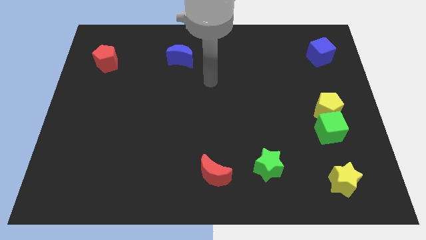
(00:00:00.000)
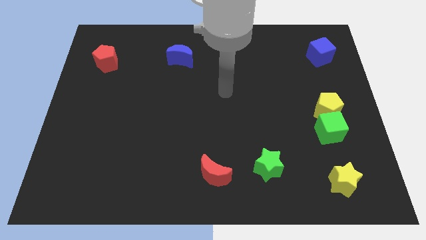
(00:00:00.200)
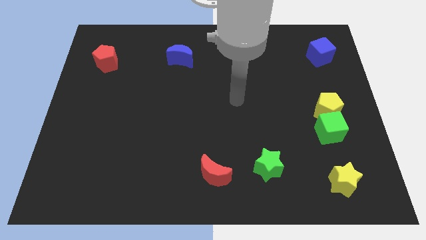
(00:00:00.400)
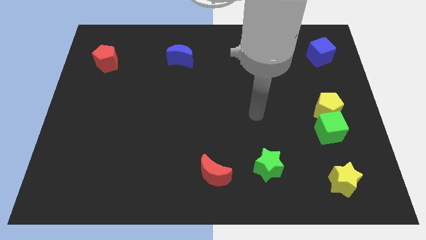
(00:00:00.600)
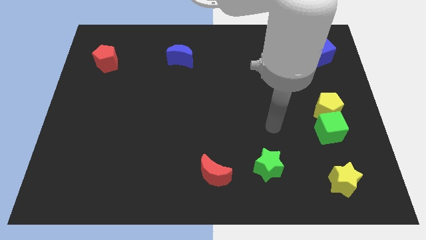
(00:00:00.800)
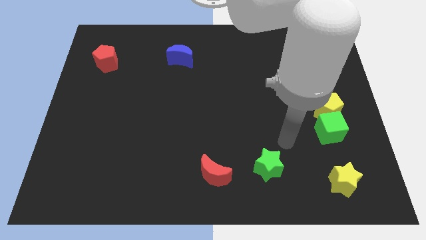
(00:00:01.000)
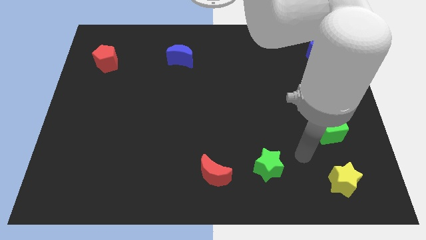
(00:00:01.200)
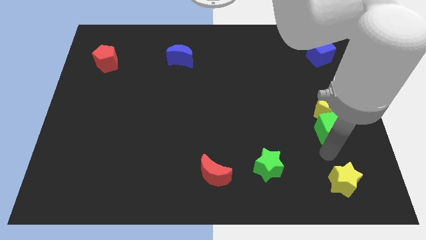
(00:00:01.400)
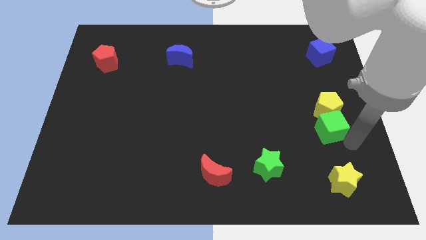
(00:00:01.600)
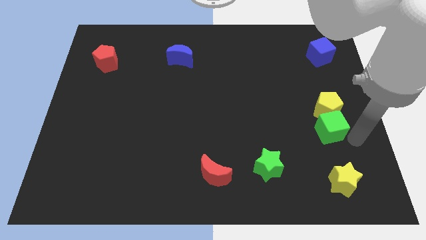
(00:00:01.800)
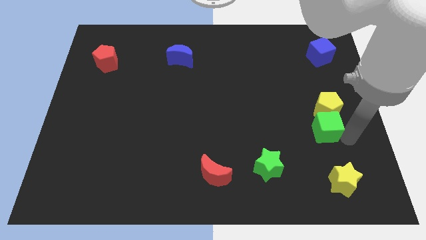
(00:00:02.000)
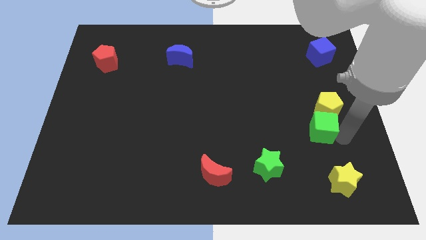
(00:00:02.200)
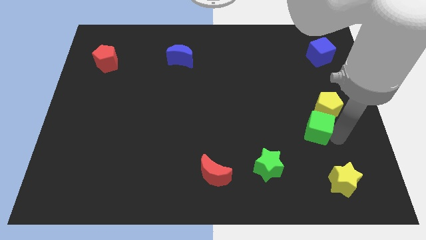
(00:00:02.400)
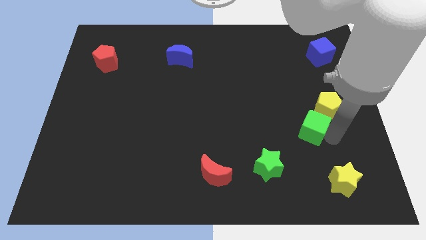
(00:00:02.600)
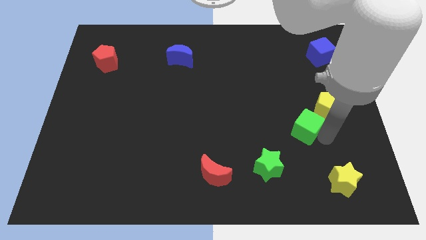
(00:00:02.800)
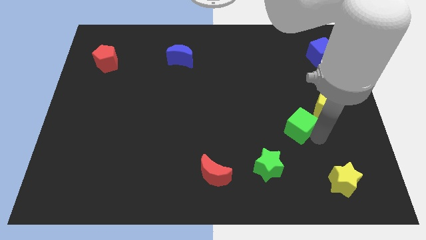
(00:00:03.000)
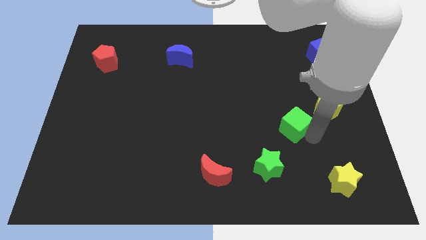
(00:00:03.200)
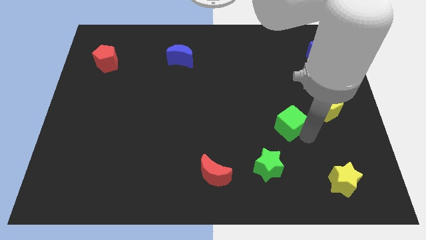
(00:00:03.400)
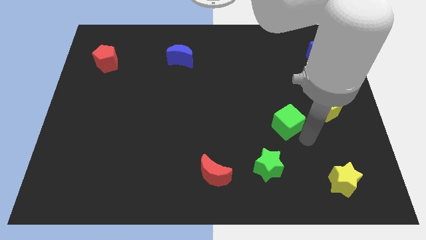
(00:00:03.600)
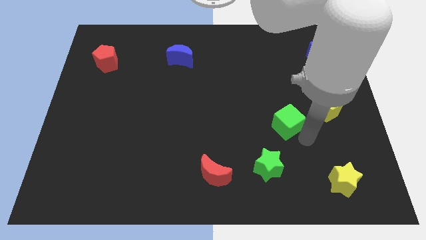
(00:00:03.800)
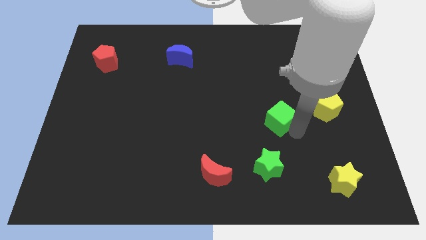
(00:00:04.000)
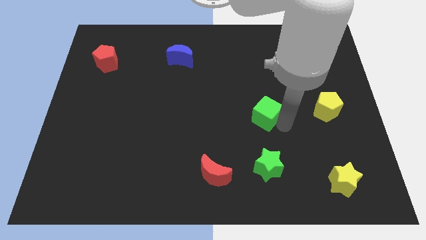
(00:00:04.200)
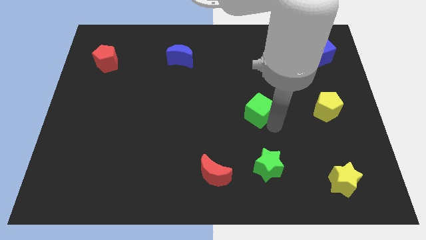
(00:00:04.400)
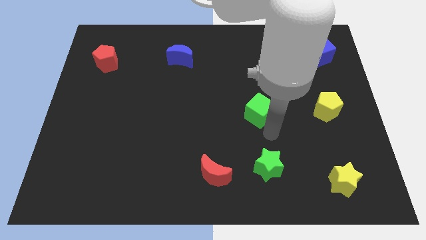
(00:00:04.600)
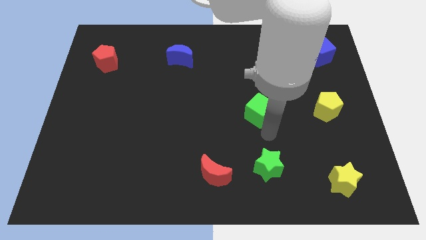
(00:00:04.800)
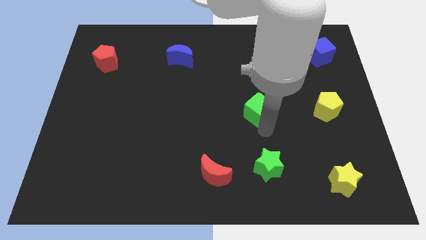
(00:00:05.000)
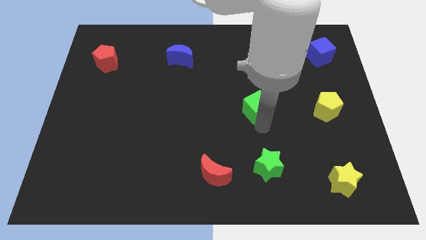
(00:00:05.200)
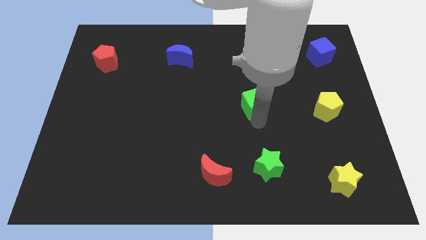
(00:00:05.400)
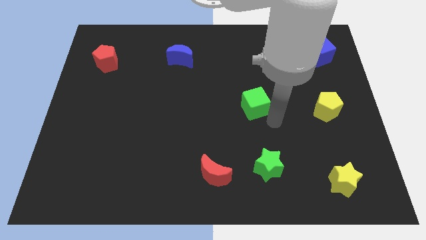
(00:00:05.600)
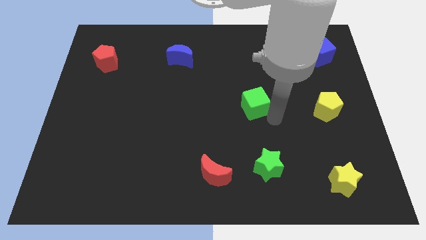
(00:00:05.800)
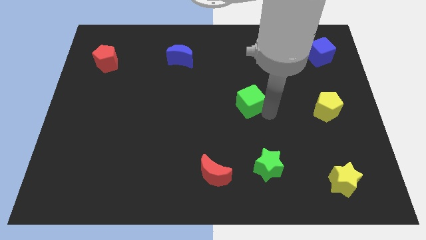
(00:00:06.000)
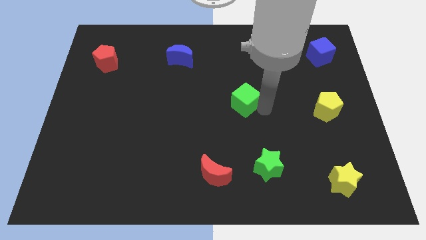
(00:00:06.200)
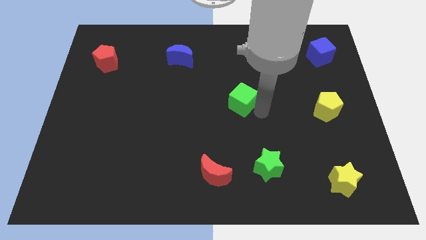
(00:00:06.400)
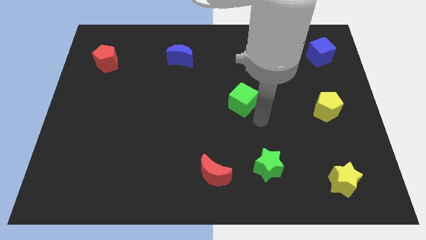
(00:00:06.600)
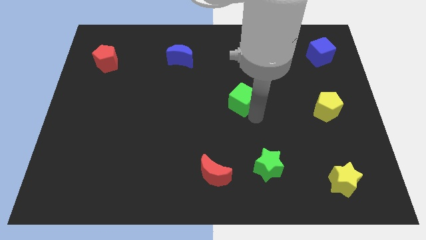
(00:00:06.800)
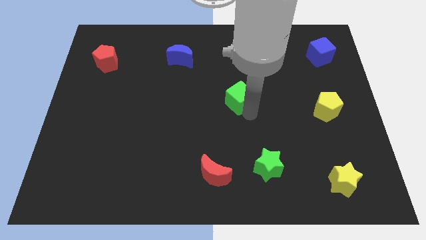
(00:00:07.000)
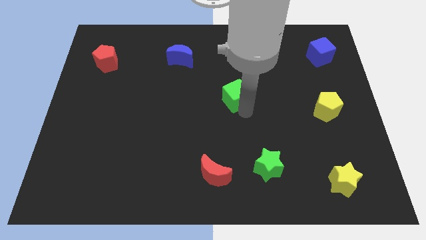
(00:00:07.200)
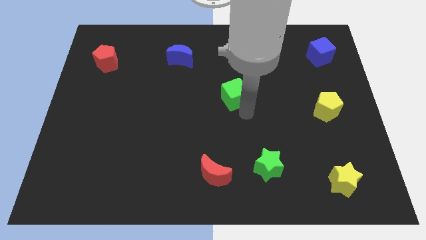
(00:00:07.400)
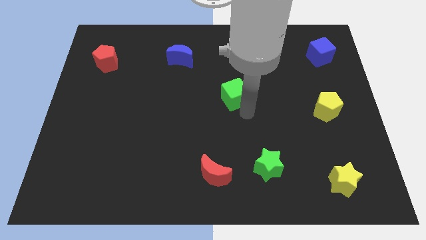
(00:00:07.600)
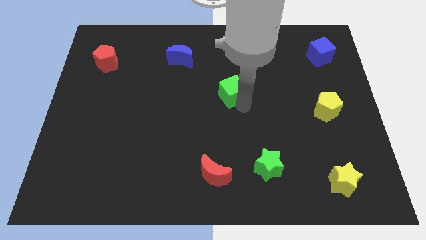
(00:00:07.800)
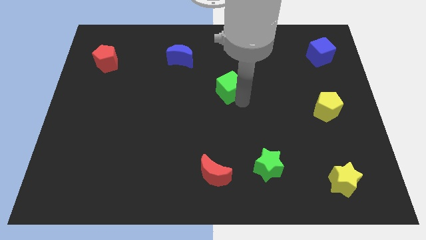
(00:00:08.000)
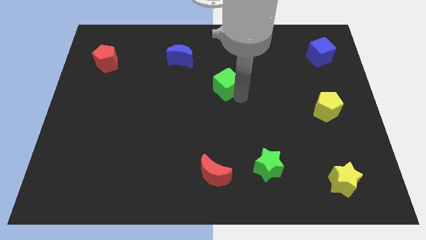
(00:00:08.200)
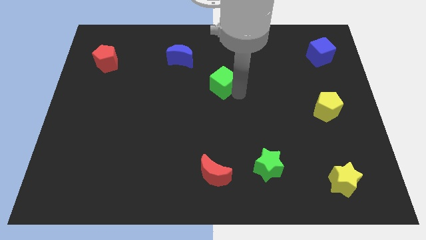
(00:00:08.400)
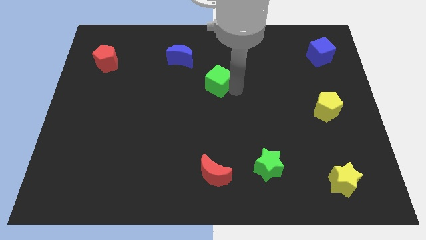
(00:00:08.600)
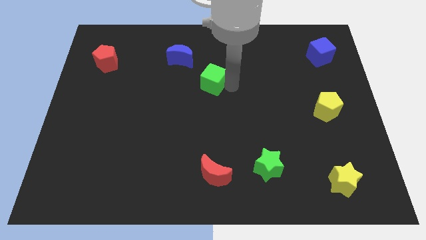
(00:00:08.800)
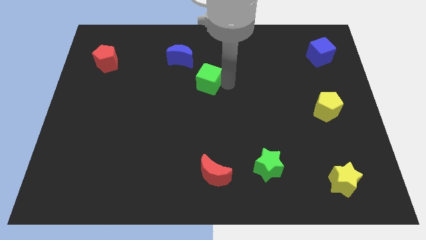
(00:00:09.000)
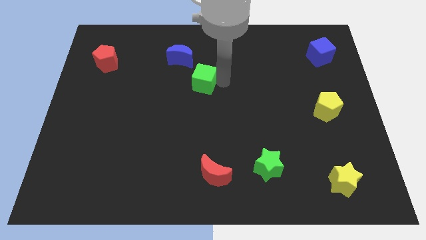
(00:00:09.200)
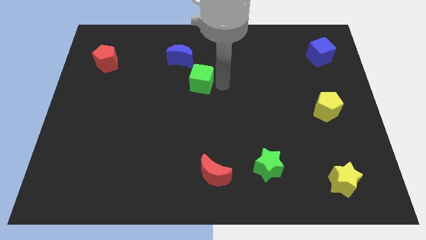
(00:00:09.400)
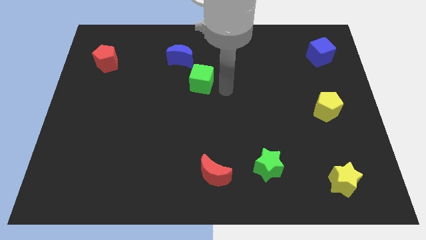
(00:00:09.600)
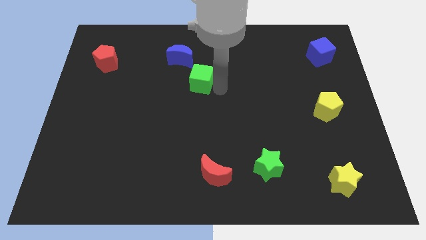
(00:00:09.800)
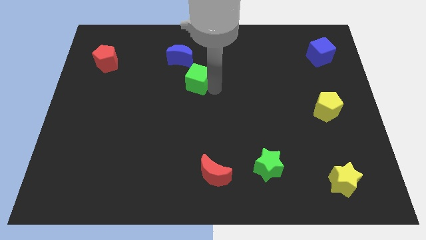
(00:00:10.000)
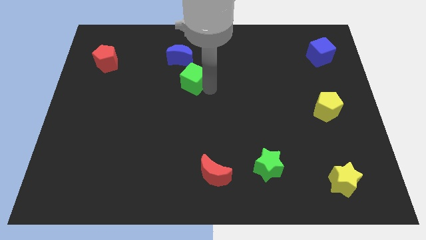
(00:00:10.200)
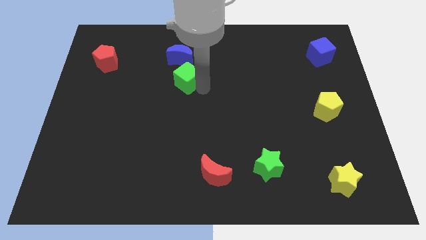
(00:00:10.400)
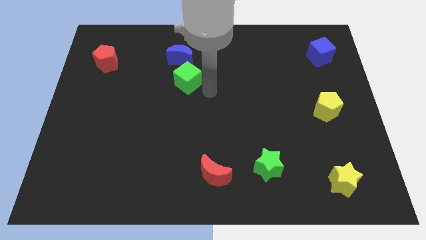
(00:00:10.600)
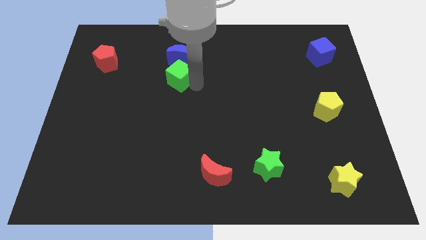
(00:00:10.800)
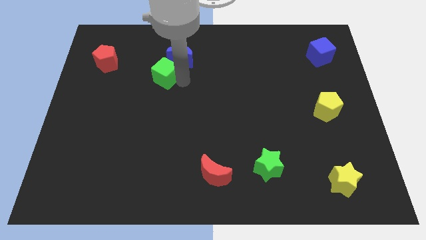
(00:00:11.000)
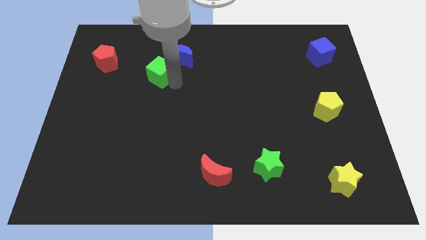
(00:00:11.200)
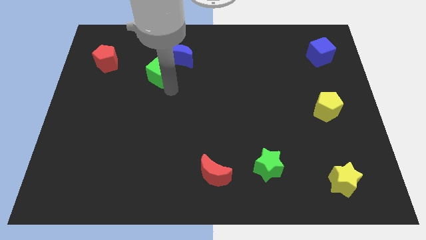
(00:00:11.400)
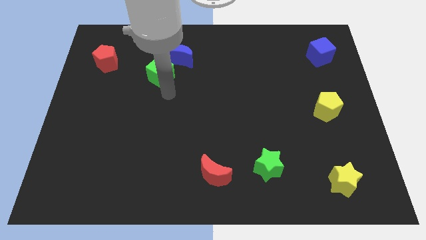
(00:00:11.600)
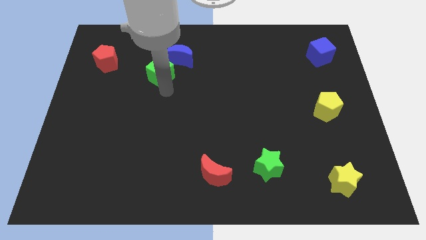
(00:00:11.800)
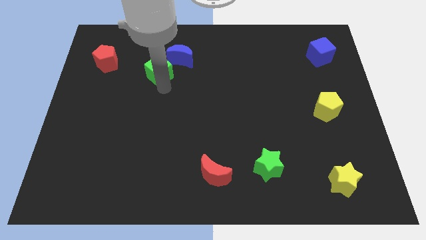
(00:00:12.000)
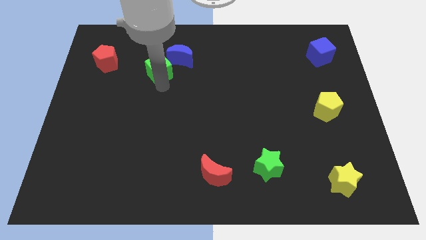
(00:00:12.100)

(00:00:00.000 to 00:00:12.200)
put the green cube just left of the blue moon
